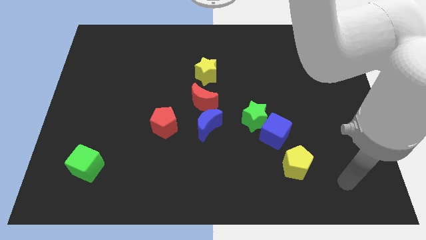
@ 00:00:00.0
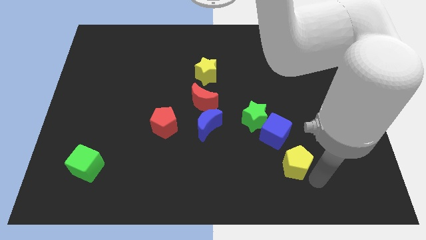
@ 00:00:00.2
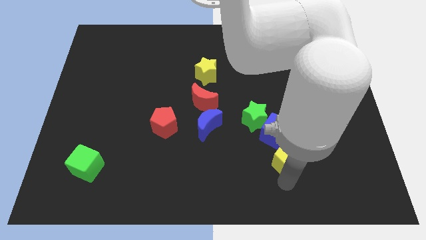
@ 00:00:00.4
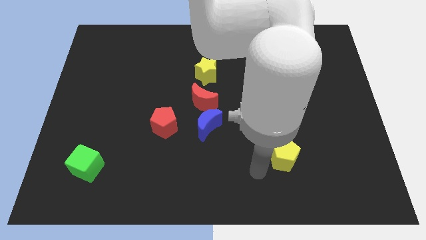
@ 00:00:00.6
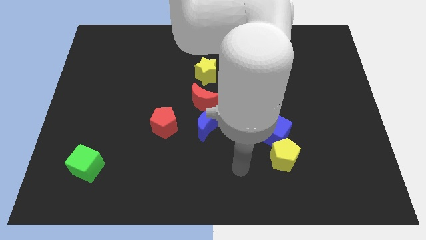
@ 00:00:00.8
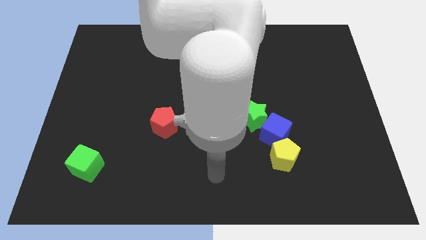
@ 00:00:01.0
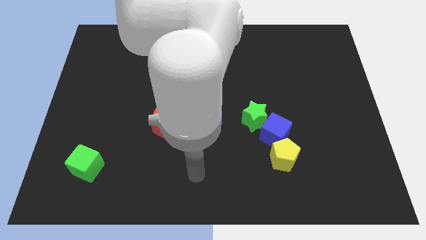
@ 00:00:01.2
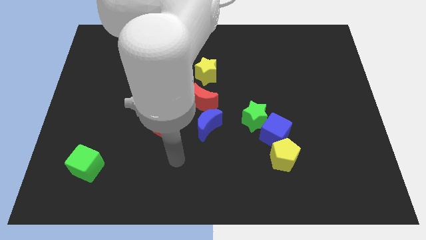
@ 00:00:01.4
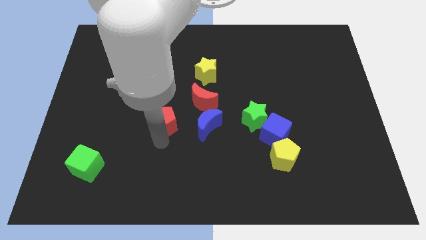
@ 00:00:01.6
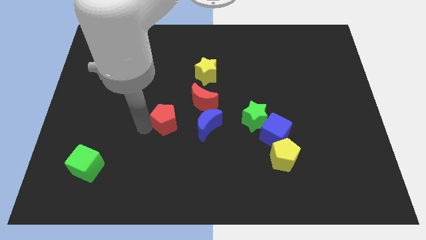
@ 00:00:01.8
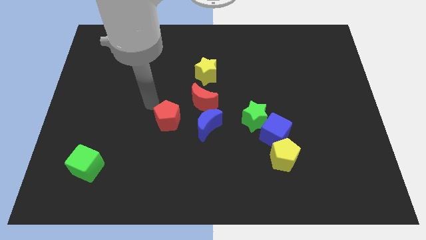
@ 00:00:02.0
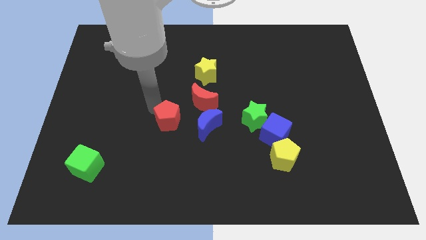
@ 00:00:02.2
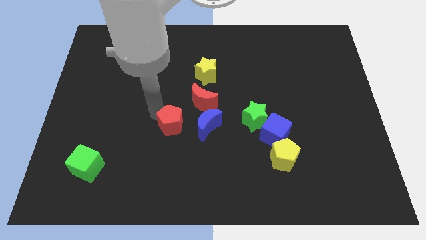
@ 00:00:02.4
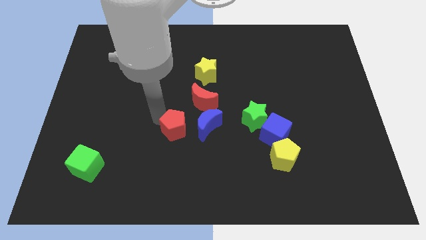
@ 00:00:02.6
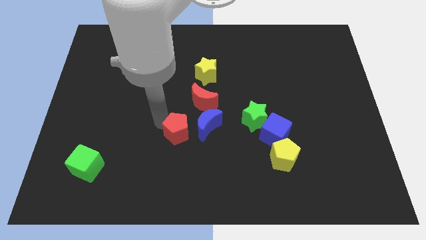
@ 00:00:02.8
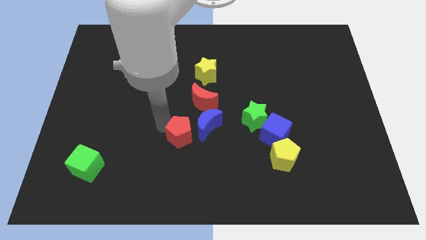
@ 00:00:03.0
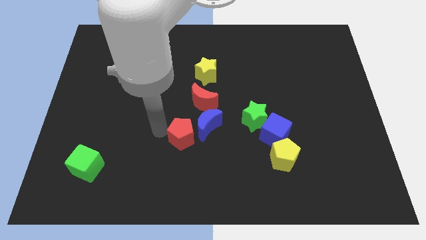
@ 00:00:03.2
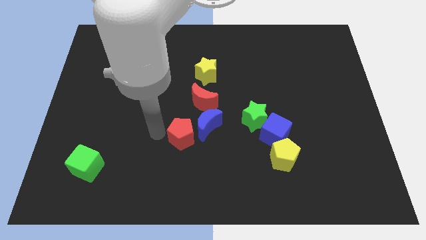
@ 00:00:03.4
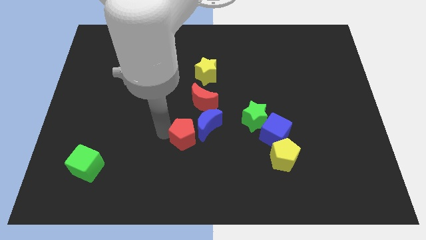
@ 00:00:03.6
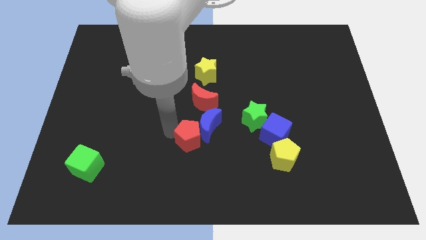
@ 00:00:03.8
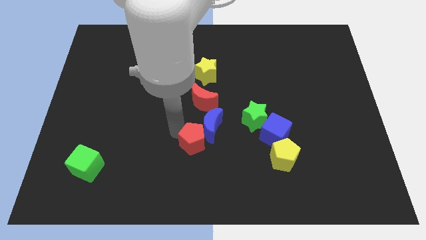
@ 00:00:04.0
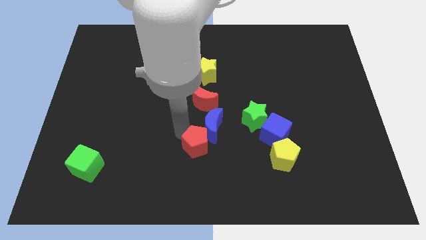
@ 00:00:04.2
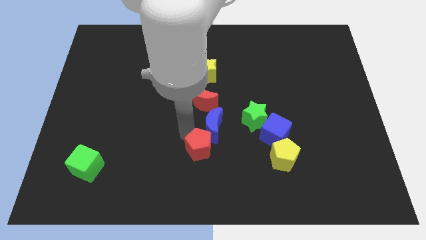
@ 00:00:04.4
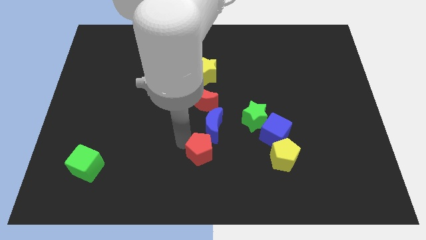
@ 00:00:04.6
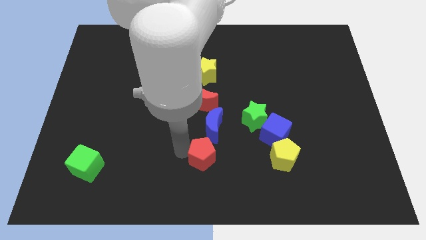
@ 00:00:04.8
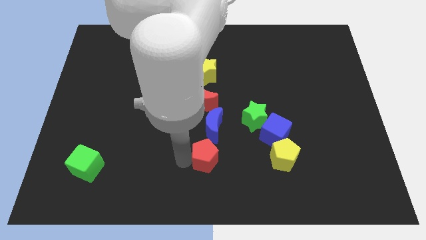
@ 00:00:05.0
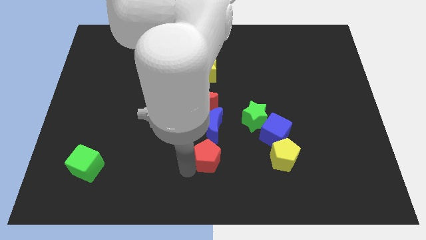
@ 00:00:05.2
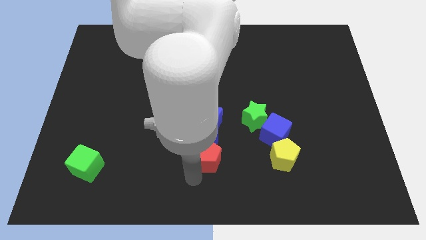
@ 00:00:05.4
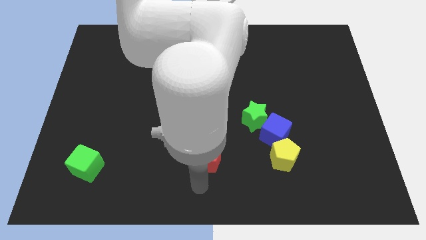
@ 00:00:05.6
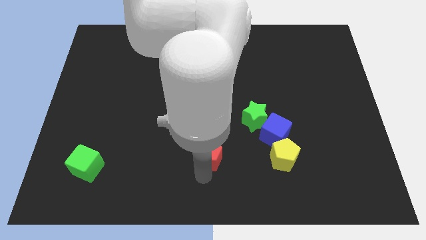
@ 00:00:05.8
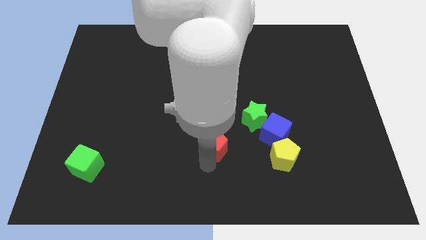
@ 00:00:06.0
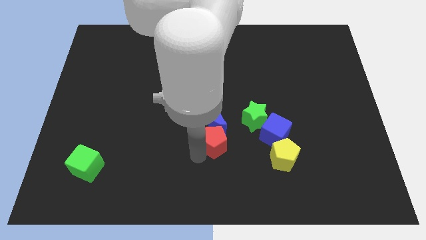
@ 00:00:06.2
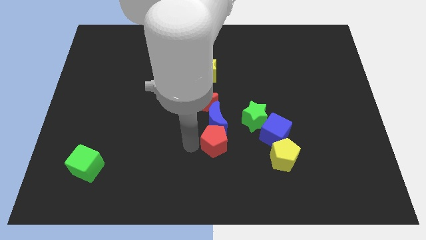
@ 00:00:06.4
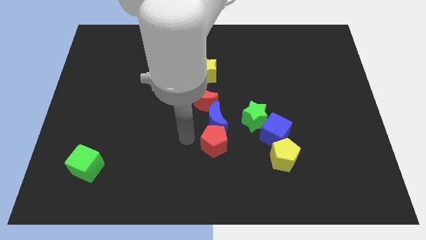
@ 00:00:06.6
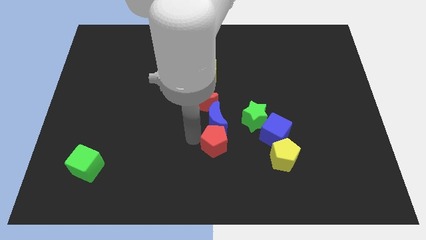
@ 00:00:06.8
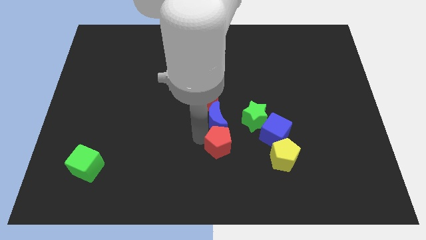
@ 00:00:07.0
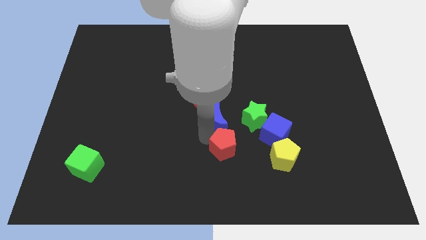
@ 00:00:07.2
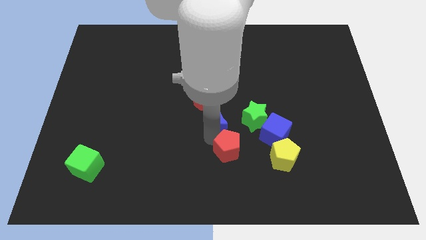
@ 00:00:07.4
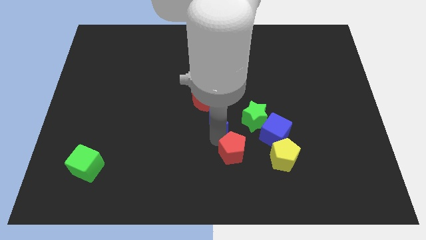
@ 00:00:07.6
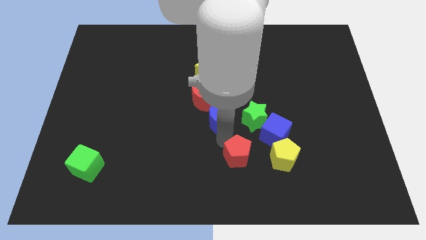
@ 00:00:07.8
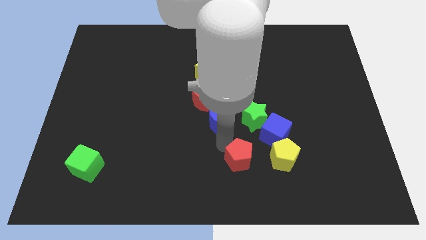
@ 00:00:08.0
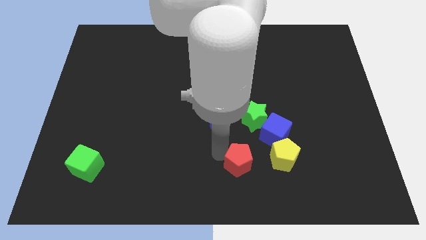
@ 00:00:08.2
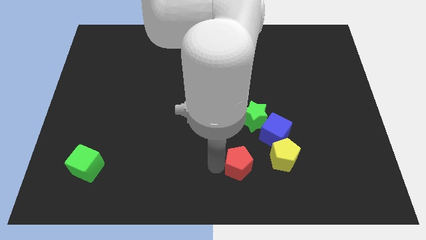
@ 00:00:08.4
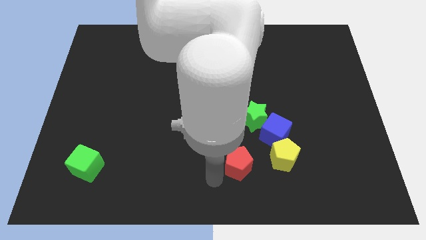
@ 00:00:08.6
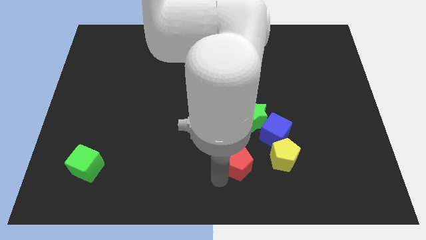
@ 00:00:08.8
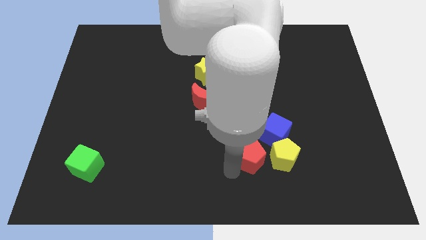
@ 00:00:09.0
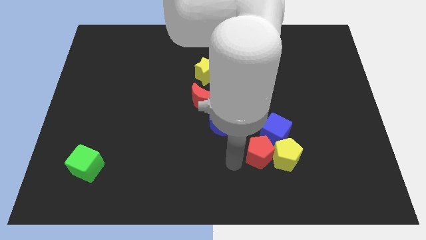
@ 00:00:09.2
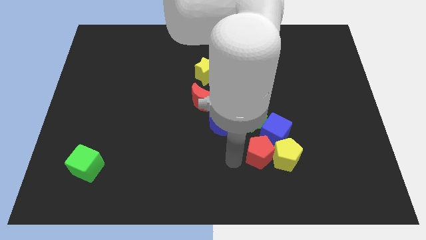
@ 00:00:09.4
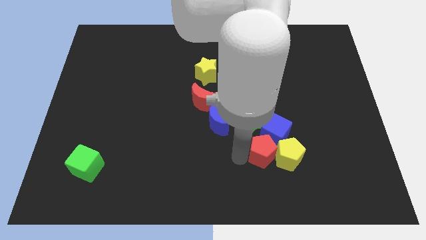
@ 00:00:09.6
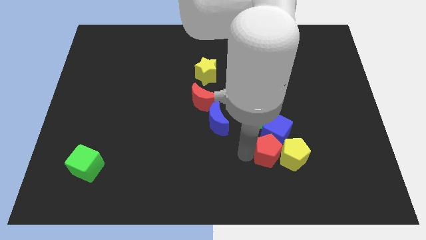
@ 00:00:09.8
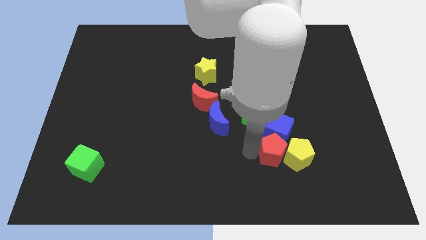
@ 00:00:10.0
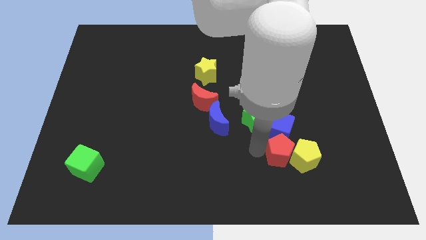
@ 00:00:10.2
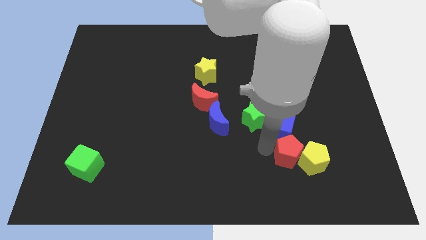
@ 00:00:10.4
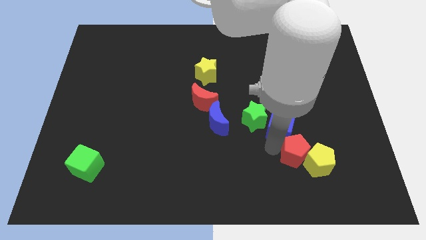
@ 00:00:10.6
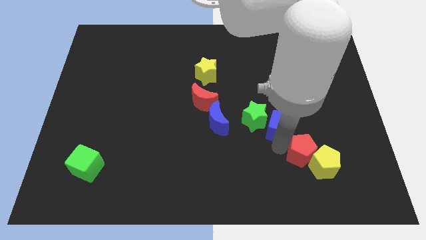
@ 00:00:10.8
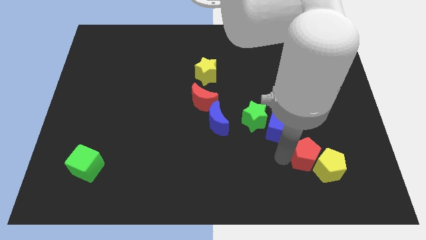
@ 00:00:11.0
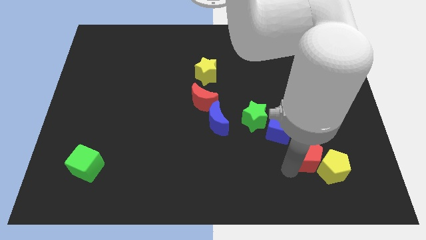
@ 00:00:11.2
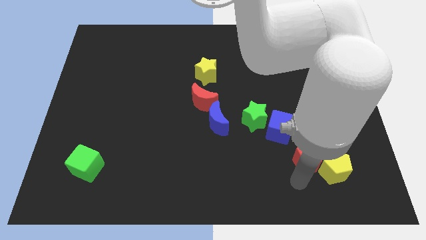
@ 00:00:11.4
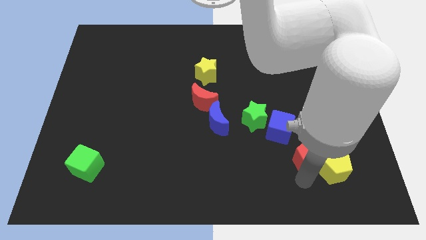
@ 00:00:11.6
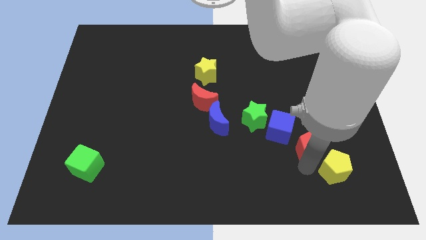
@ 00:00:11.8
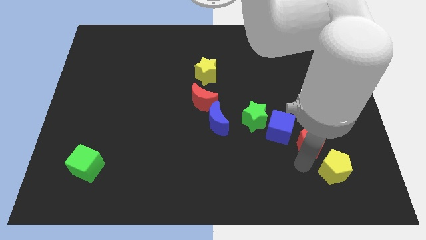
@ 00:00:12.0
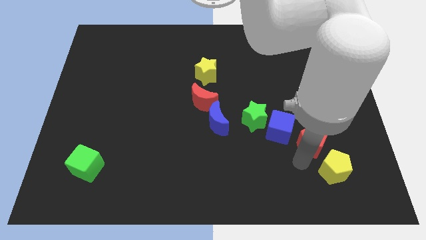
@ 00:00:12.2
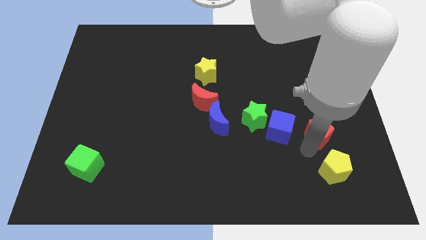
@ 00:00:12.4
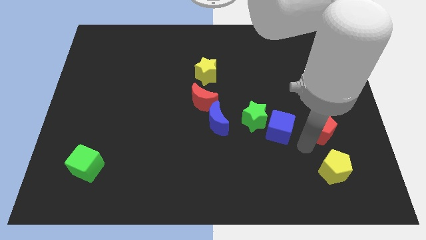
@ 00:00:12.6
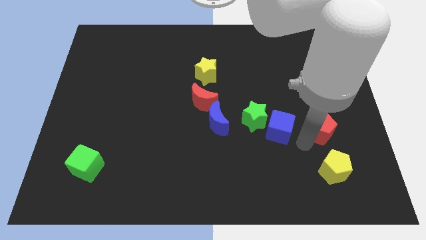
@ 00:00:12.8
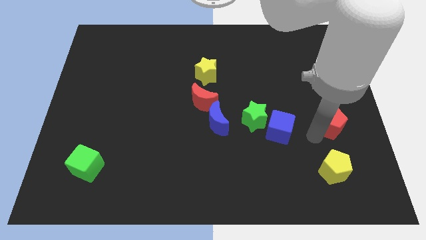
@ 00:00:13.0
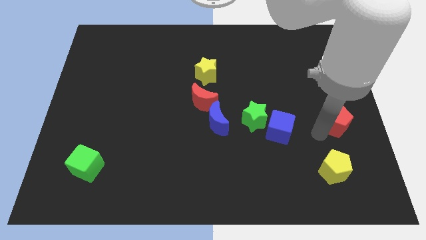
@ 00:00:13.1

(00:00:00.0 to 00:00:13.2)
push the red pentagon to the right side of the board
